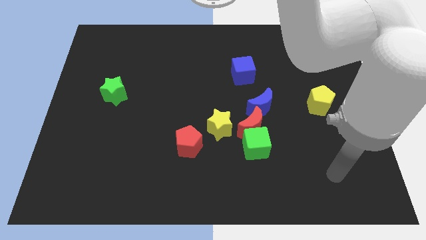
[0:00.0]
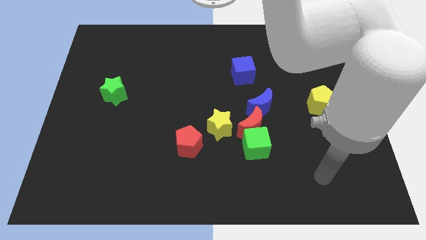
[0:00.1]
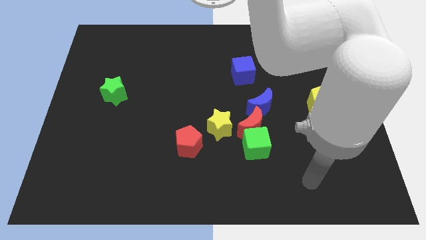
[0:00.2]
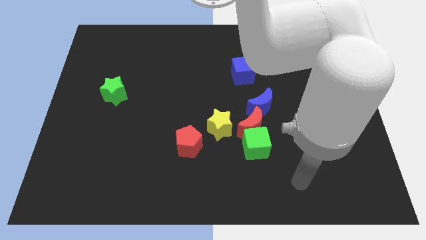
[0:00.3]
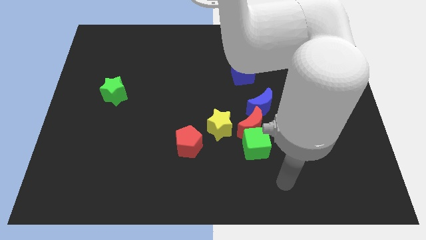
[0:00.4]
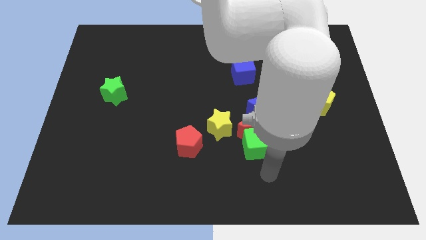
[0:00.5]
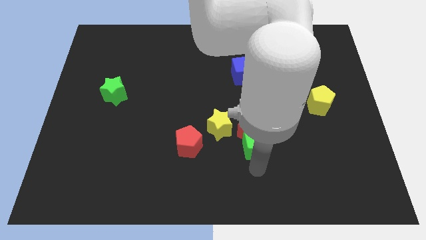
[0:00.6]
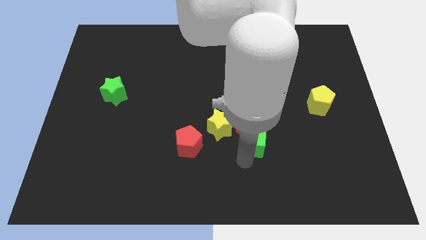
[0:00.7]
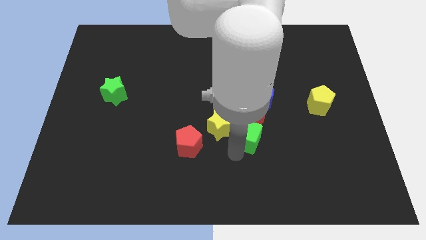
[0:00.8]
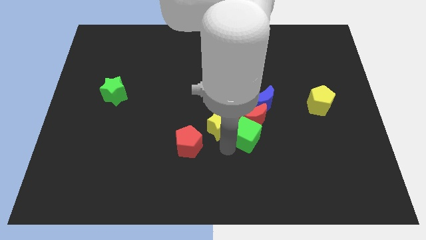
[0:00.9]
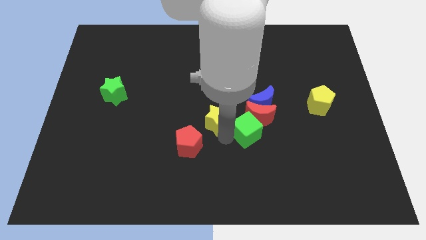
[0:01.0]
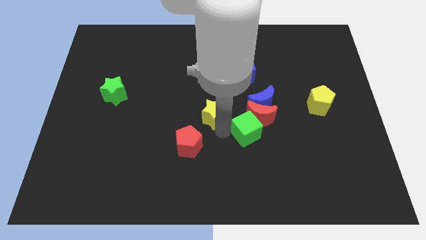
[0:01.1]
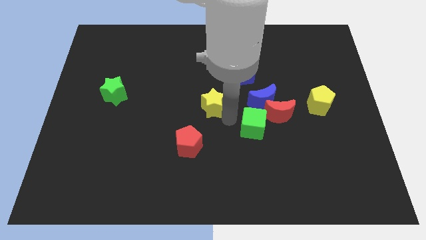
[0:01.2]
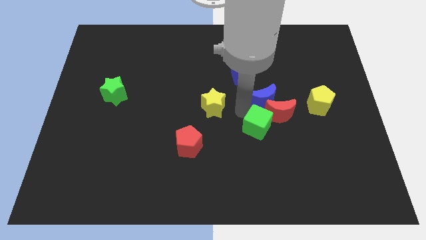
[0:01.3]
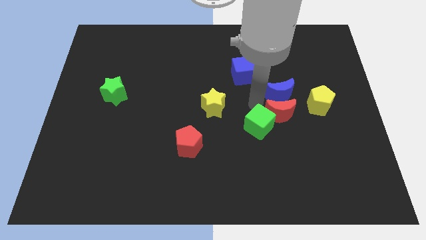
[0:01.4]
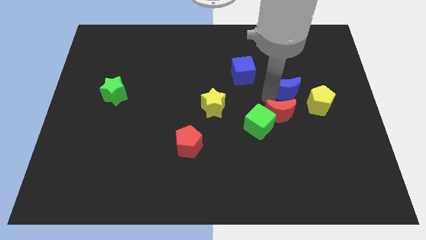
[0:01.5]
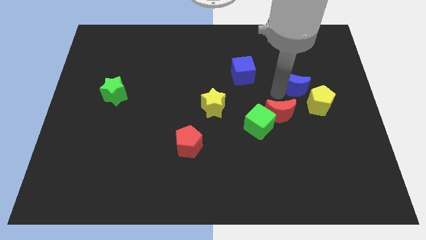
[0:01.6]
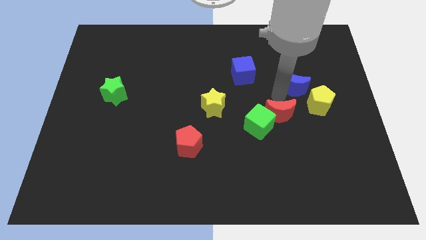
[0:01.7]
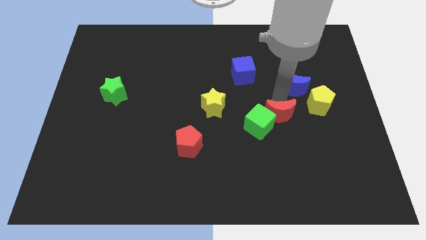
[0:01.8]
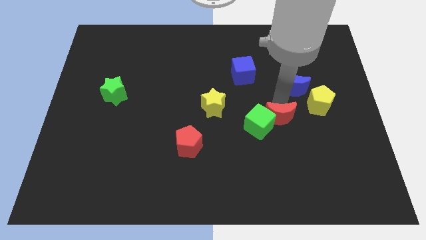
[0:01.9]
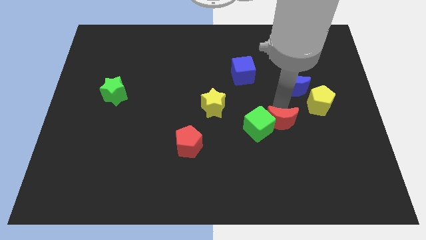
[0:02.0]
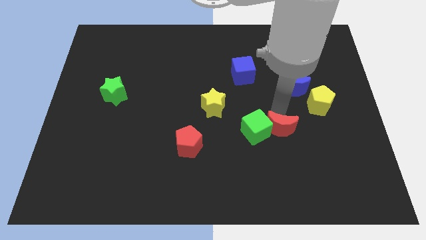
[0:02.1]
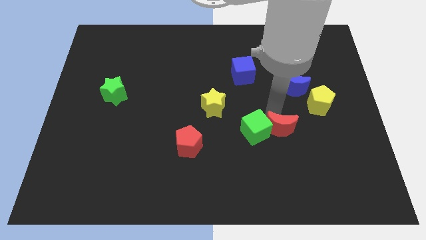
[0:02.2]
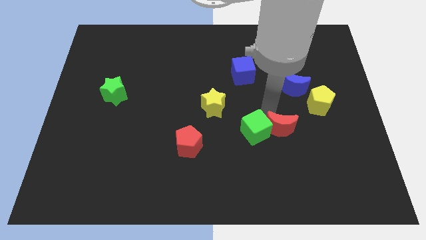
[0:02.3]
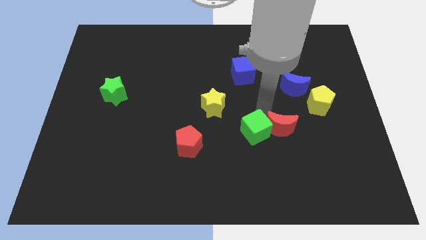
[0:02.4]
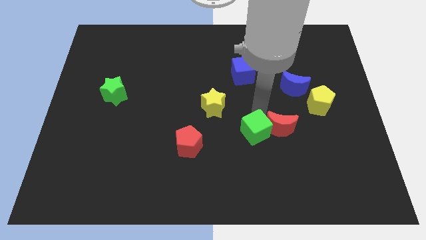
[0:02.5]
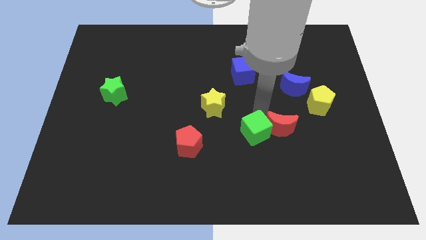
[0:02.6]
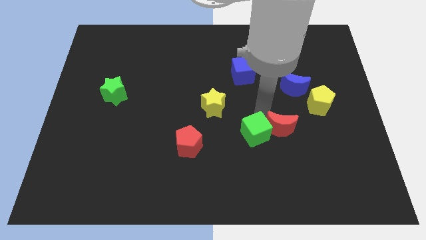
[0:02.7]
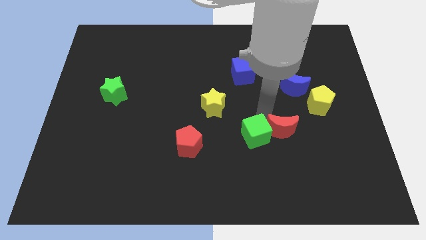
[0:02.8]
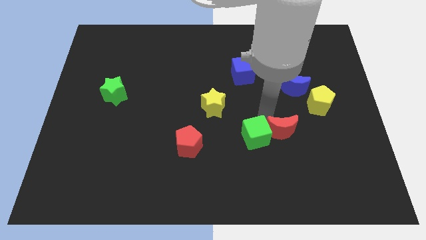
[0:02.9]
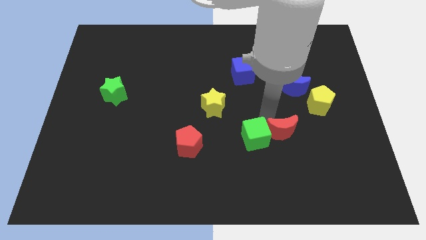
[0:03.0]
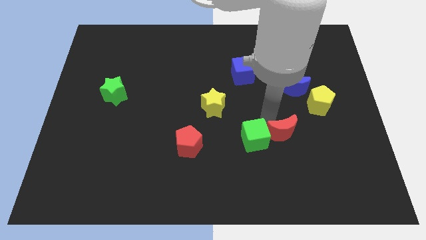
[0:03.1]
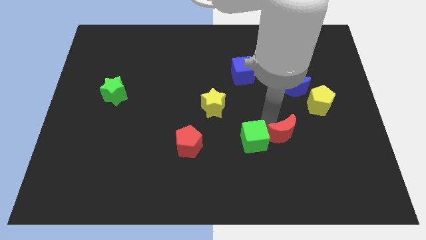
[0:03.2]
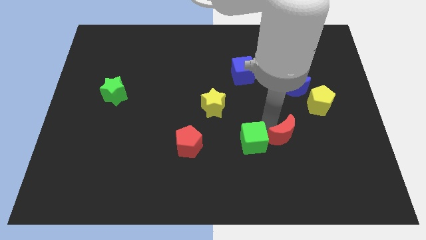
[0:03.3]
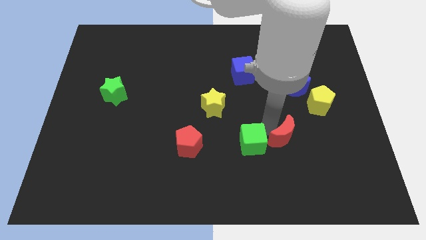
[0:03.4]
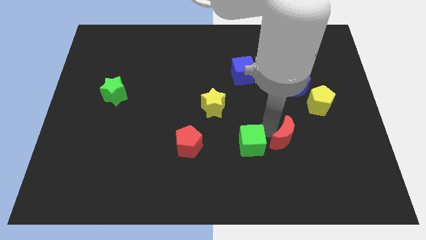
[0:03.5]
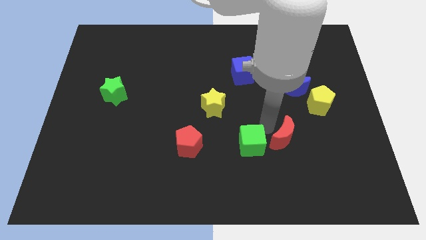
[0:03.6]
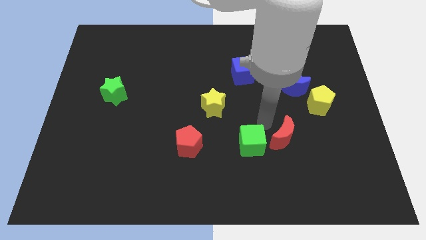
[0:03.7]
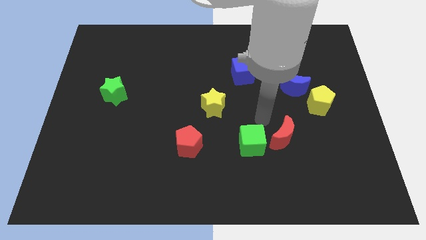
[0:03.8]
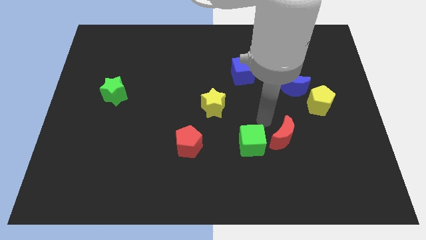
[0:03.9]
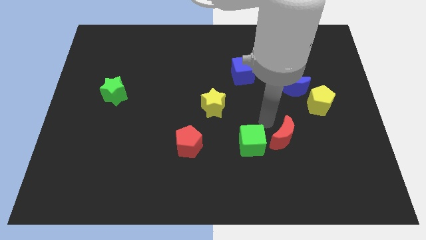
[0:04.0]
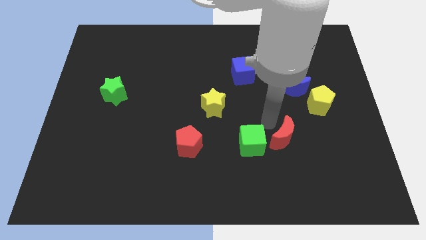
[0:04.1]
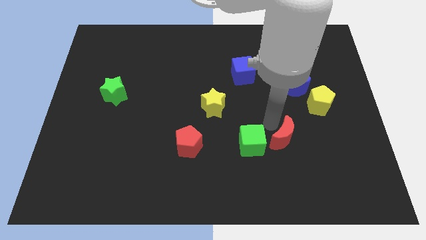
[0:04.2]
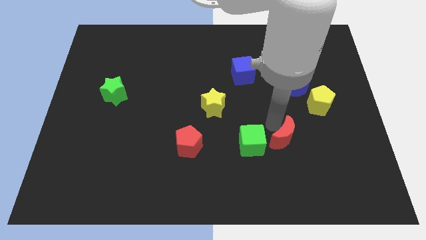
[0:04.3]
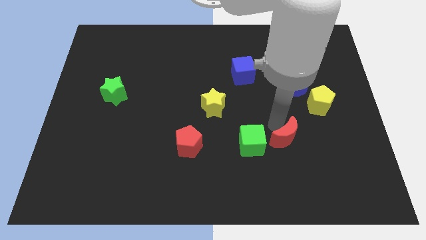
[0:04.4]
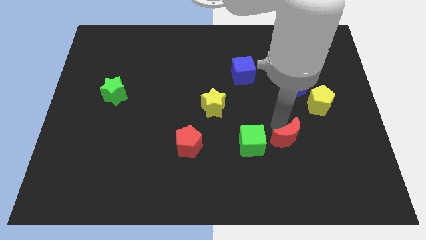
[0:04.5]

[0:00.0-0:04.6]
move the red moon away from the group of blocks

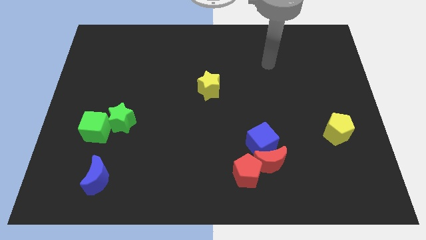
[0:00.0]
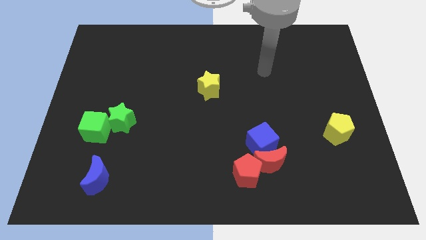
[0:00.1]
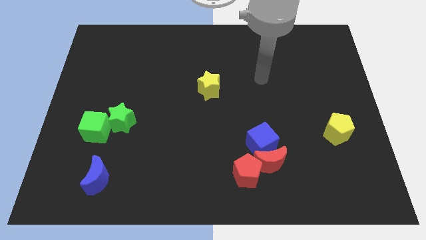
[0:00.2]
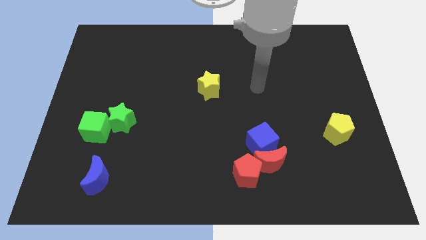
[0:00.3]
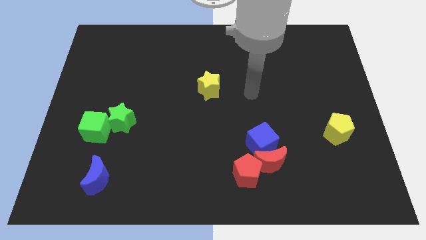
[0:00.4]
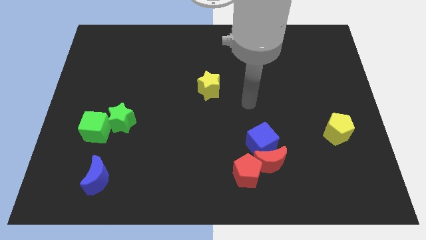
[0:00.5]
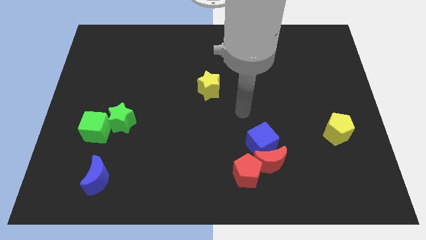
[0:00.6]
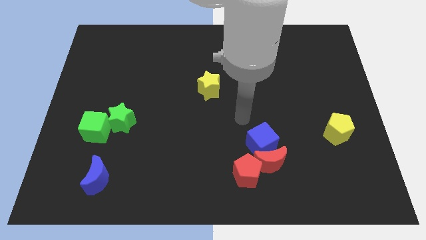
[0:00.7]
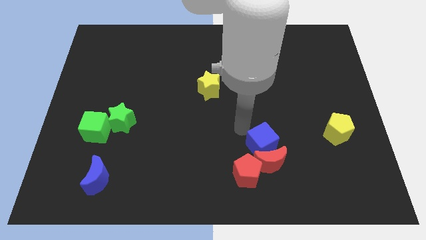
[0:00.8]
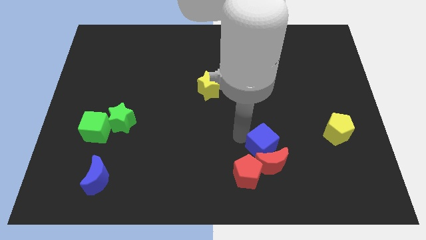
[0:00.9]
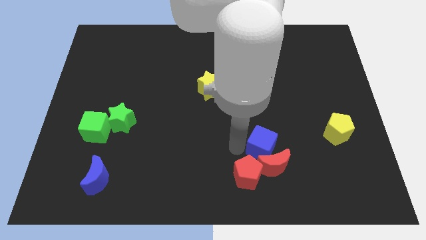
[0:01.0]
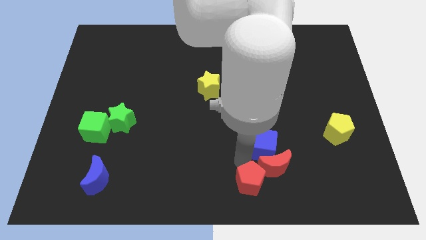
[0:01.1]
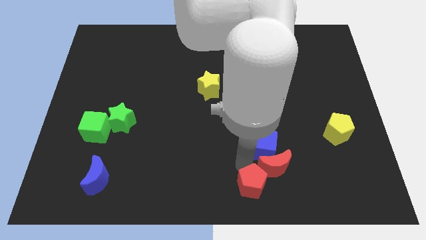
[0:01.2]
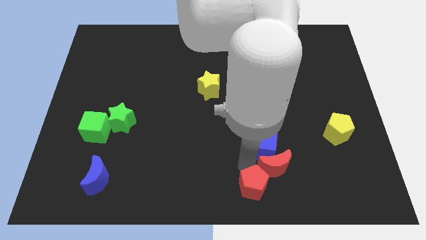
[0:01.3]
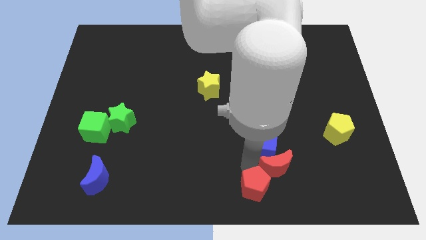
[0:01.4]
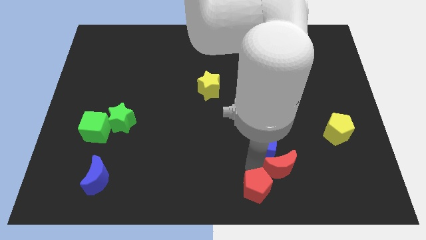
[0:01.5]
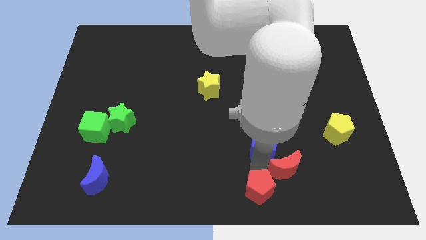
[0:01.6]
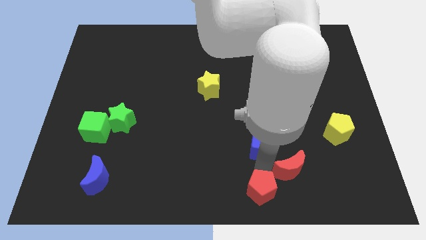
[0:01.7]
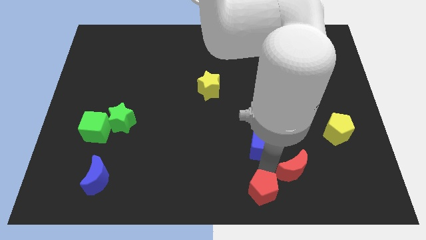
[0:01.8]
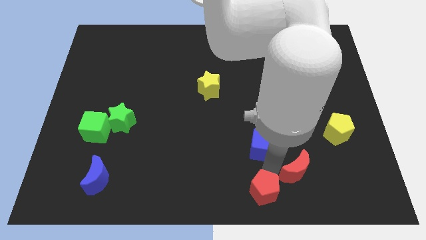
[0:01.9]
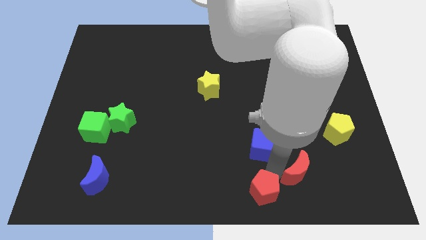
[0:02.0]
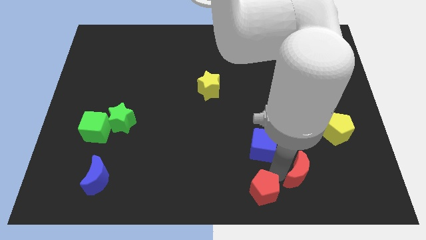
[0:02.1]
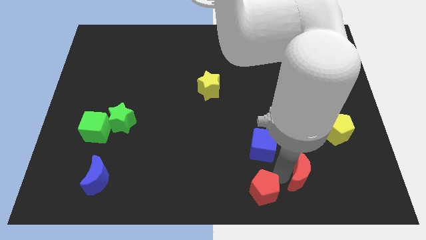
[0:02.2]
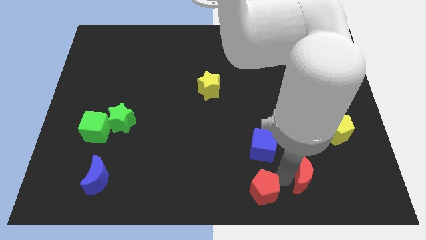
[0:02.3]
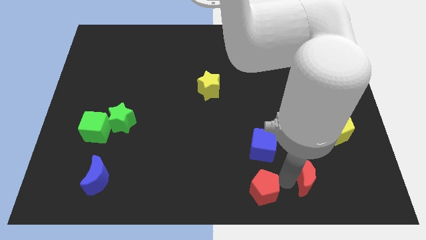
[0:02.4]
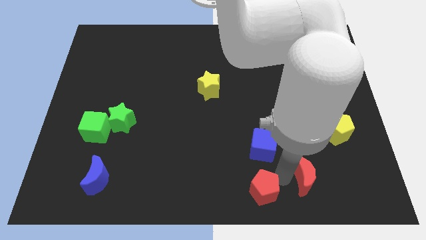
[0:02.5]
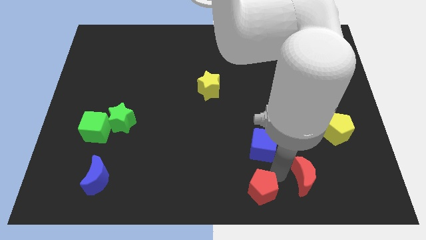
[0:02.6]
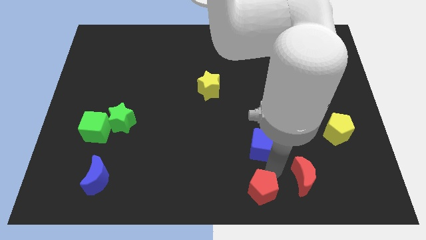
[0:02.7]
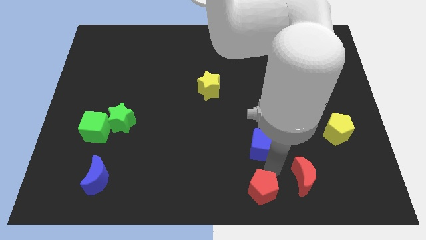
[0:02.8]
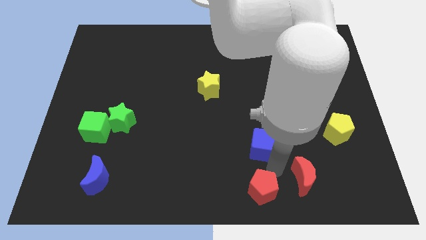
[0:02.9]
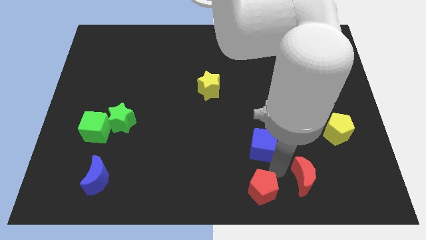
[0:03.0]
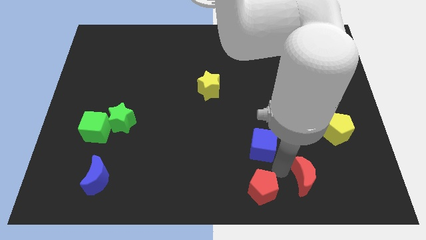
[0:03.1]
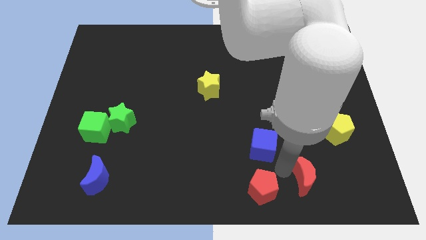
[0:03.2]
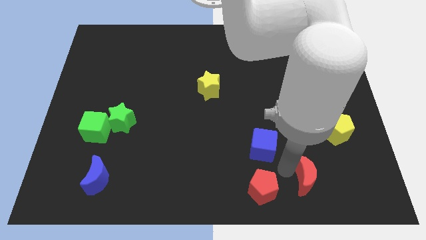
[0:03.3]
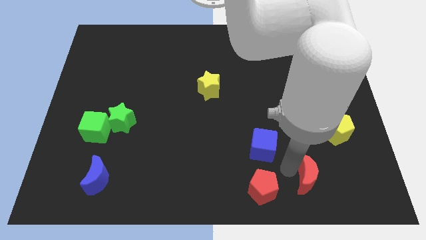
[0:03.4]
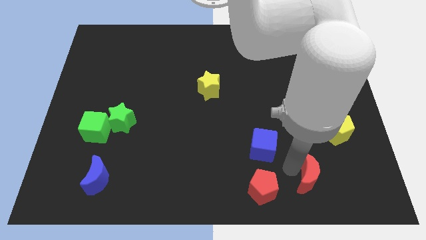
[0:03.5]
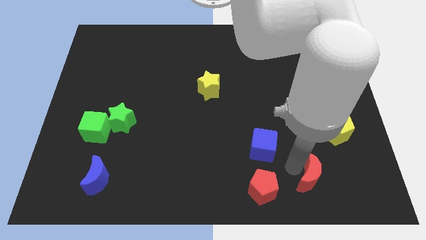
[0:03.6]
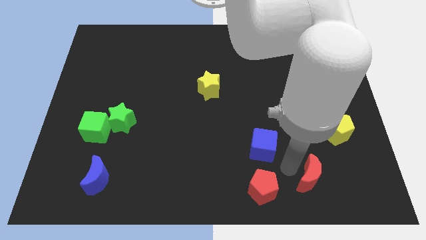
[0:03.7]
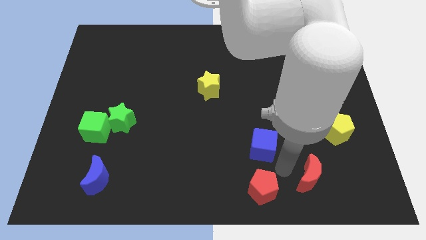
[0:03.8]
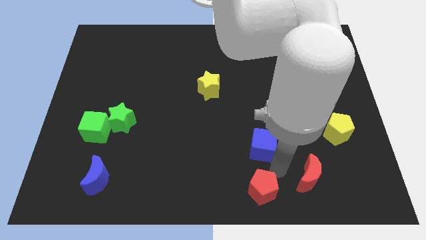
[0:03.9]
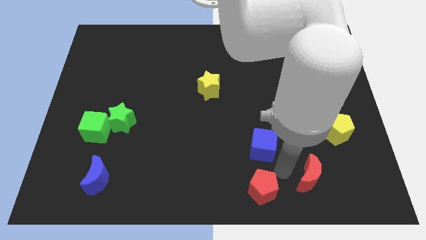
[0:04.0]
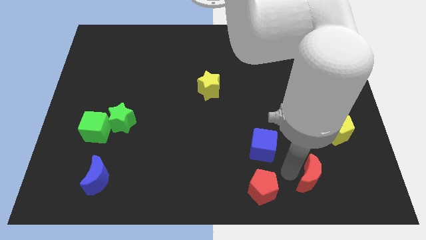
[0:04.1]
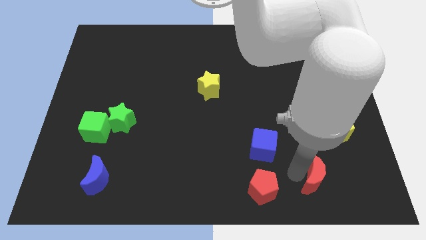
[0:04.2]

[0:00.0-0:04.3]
pull the red moon apart from the blue cube and red pentagon

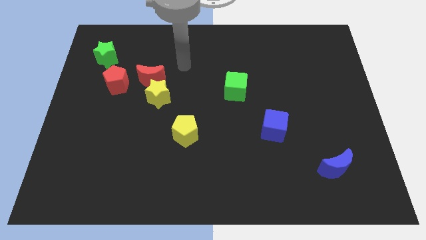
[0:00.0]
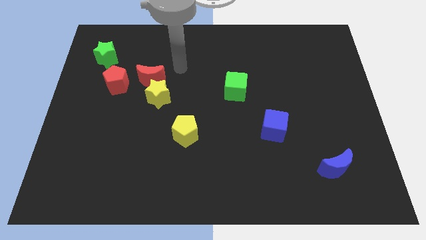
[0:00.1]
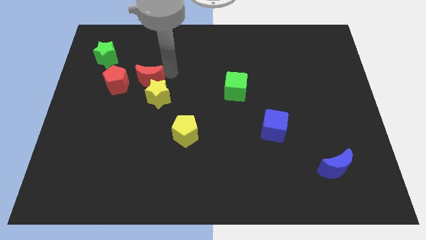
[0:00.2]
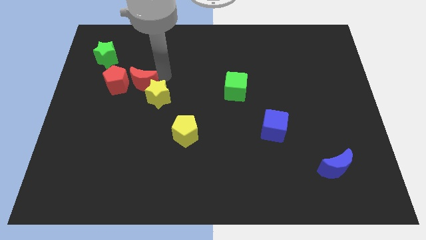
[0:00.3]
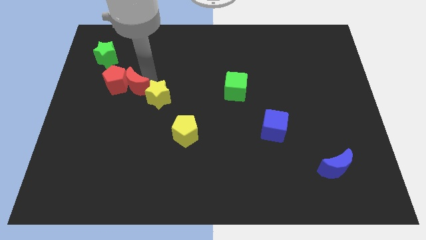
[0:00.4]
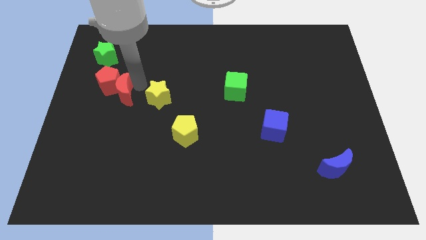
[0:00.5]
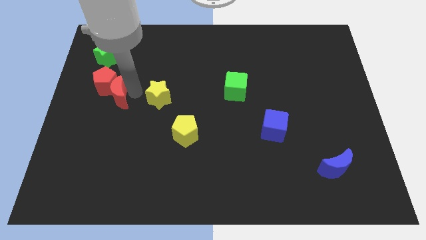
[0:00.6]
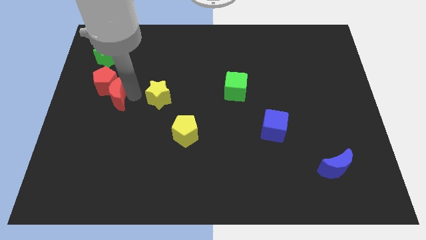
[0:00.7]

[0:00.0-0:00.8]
move the yellow star away from the red moon
